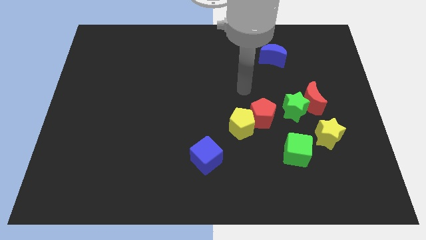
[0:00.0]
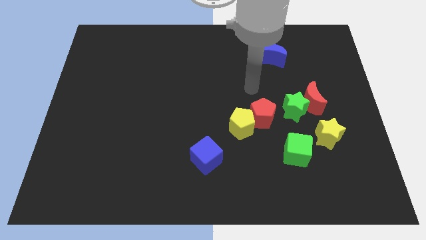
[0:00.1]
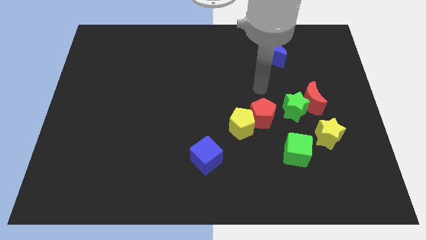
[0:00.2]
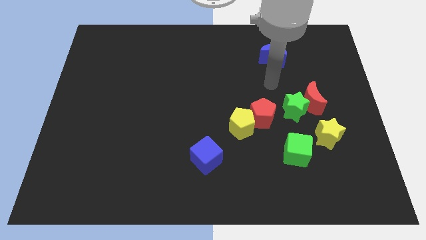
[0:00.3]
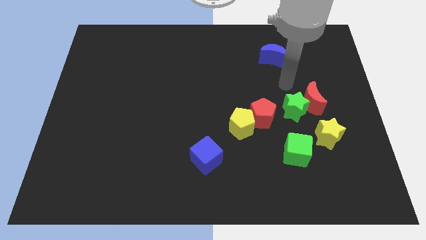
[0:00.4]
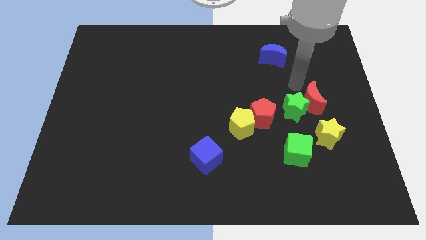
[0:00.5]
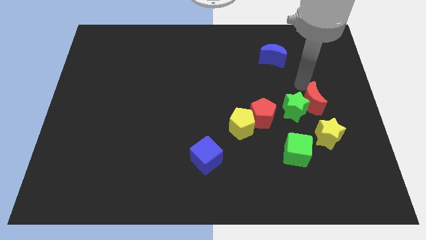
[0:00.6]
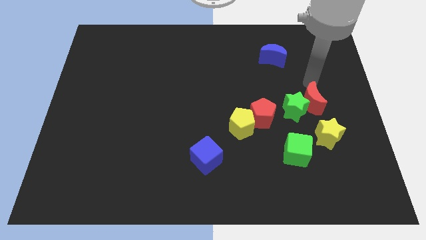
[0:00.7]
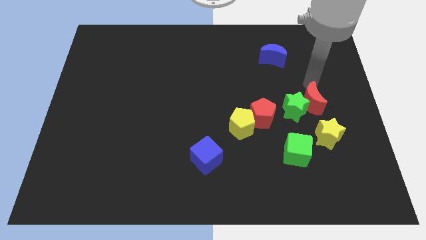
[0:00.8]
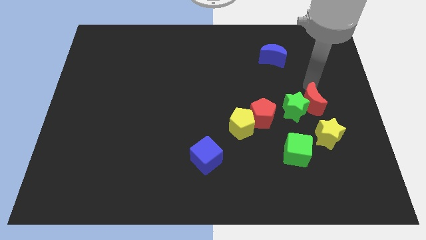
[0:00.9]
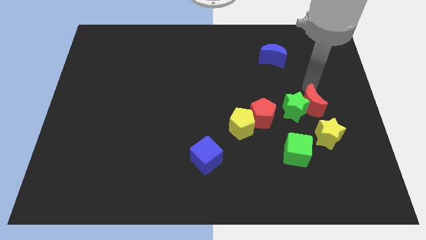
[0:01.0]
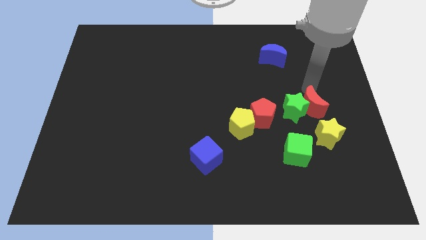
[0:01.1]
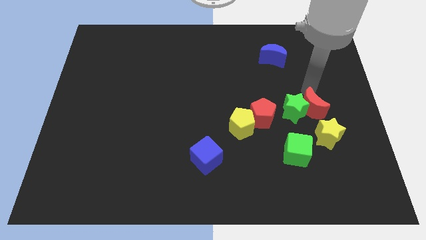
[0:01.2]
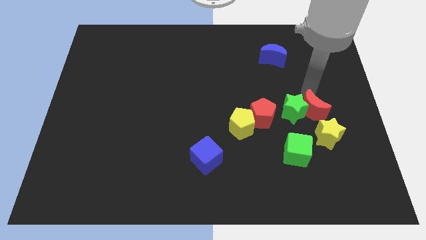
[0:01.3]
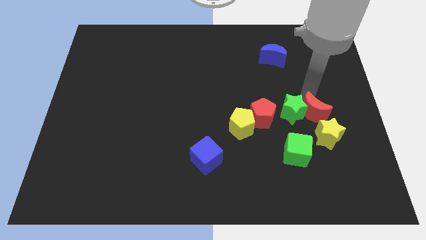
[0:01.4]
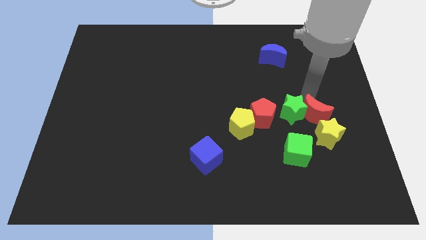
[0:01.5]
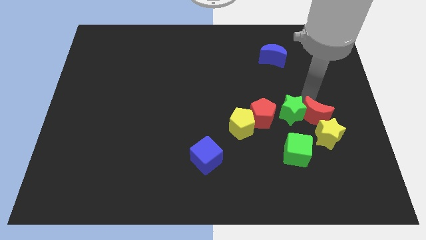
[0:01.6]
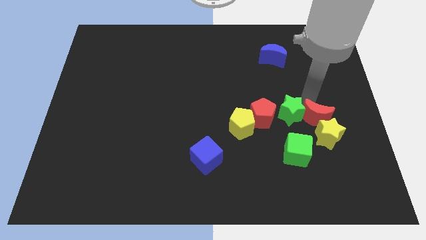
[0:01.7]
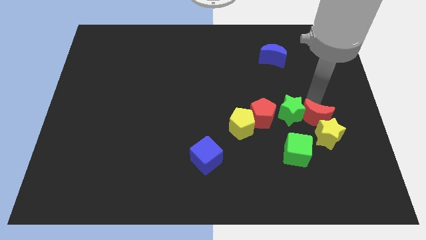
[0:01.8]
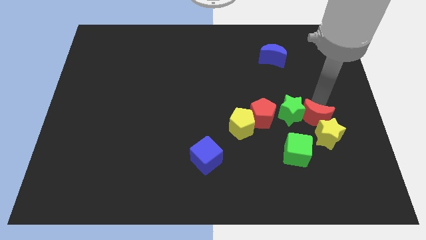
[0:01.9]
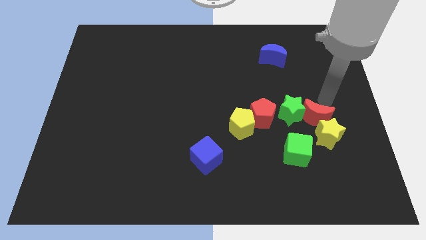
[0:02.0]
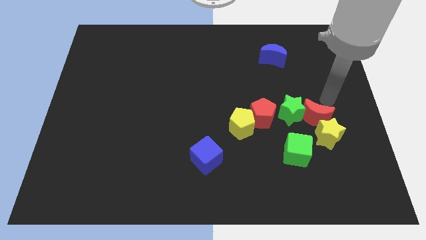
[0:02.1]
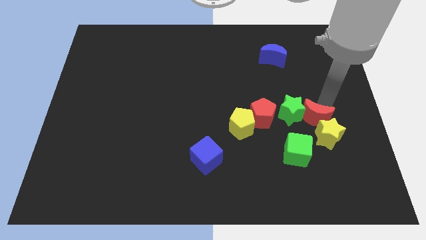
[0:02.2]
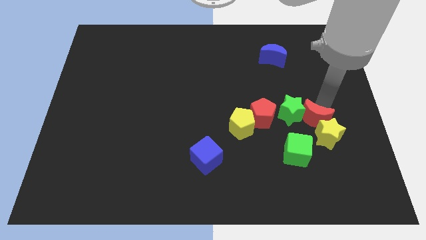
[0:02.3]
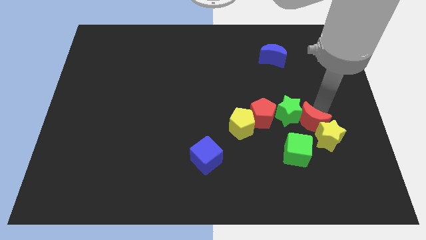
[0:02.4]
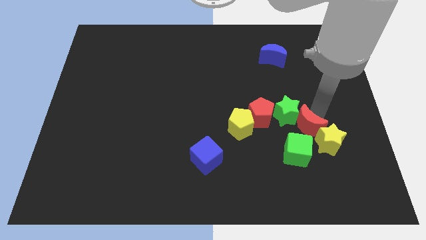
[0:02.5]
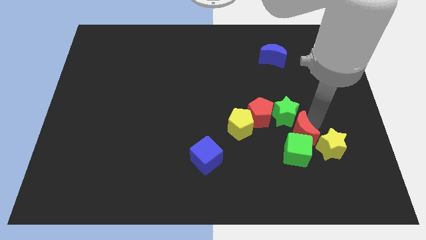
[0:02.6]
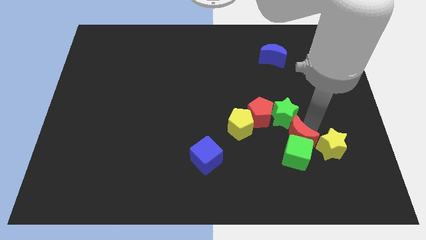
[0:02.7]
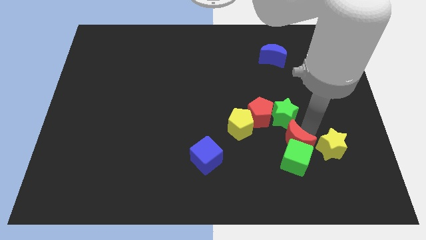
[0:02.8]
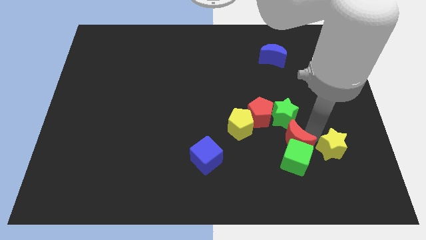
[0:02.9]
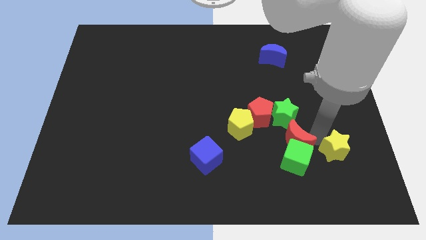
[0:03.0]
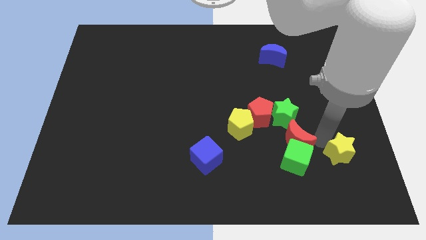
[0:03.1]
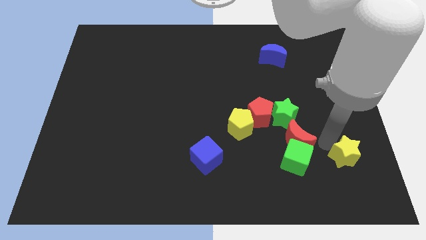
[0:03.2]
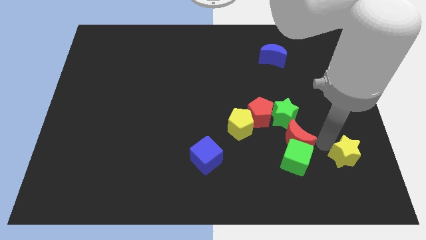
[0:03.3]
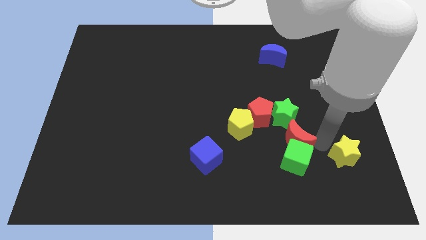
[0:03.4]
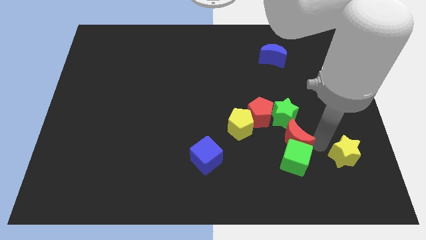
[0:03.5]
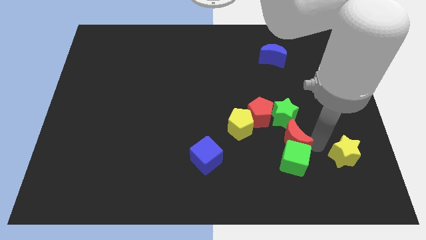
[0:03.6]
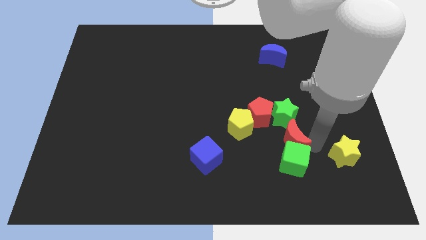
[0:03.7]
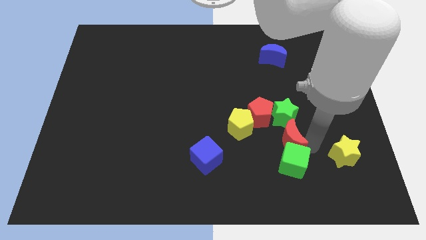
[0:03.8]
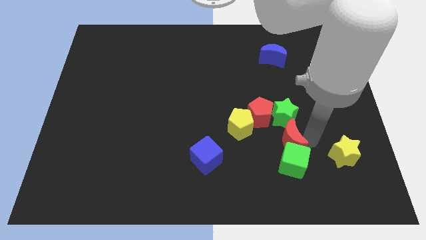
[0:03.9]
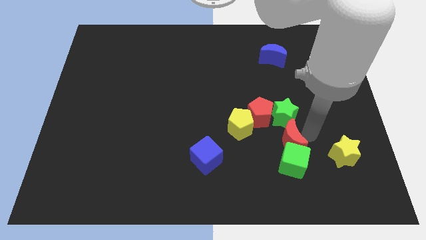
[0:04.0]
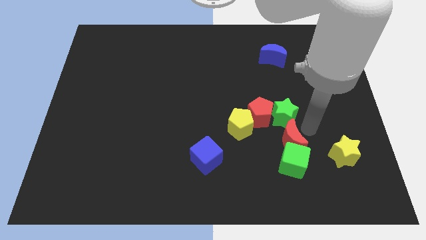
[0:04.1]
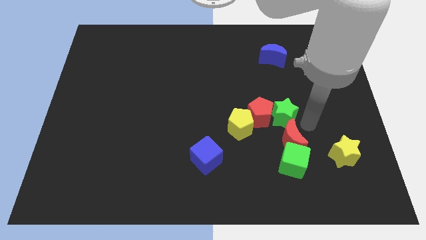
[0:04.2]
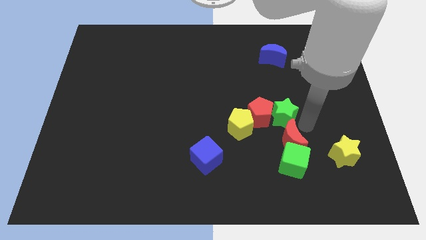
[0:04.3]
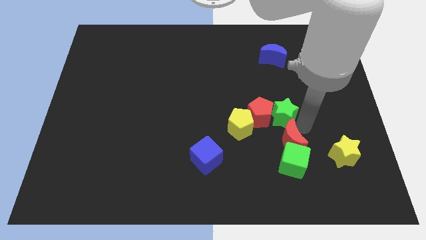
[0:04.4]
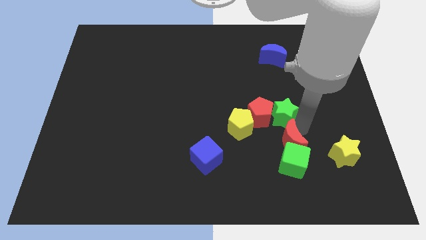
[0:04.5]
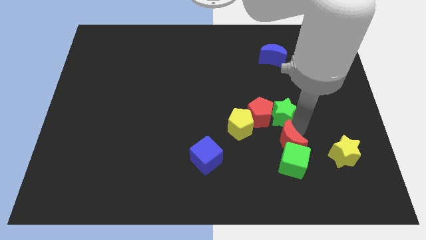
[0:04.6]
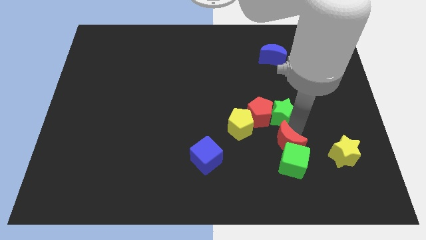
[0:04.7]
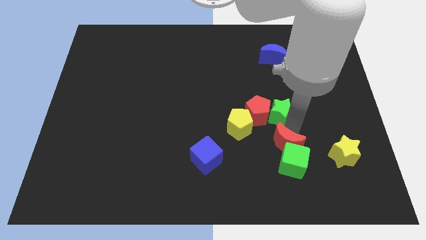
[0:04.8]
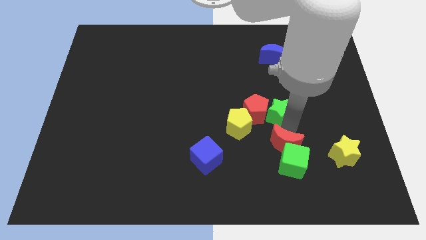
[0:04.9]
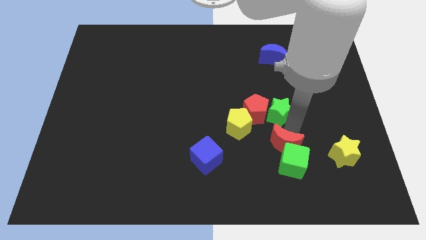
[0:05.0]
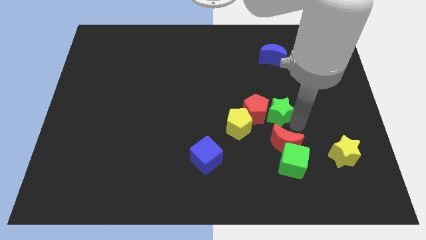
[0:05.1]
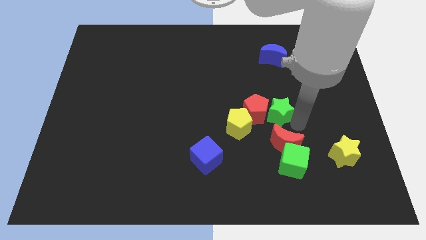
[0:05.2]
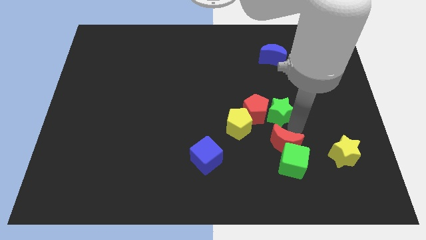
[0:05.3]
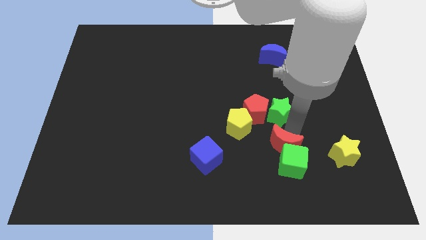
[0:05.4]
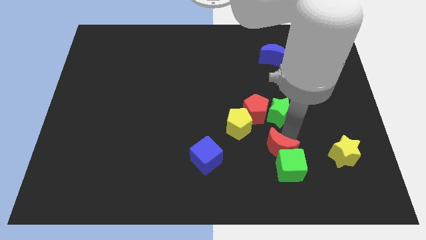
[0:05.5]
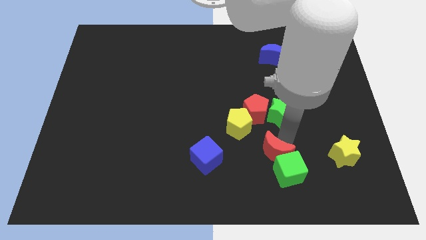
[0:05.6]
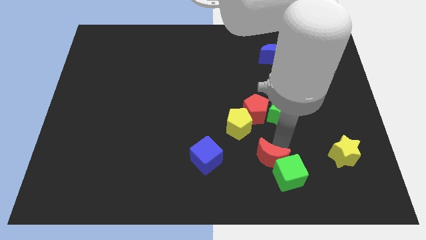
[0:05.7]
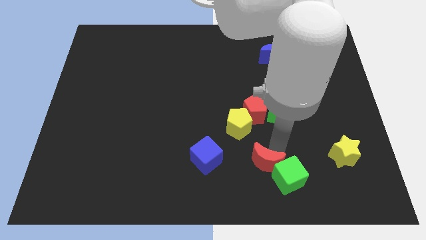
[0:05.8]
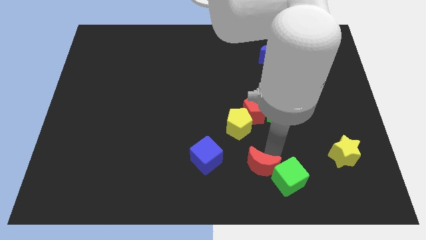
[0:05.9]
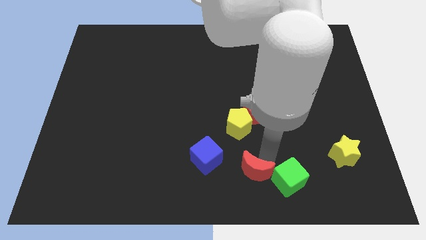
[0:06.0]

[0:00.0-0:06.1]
move the red moon to the bottom side
